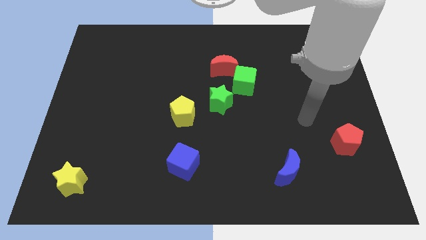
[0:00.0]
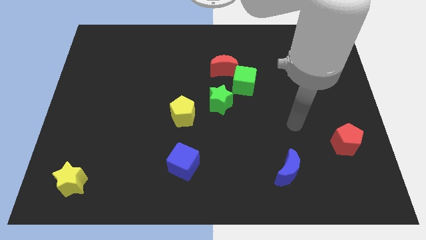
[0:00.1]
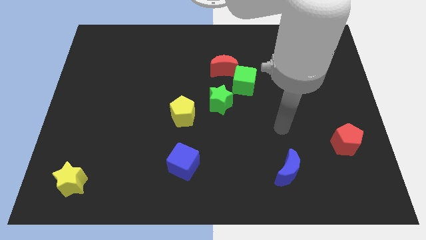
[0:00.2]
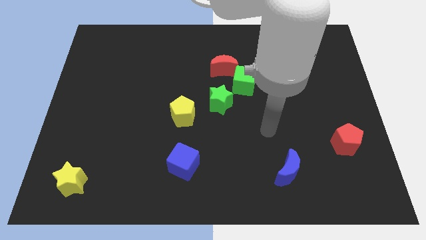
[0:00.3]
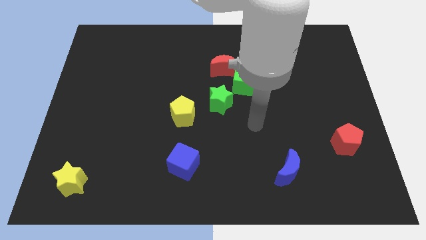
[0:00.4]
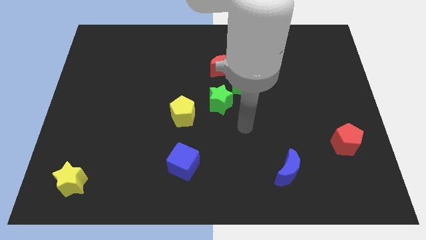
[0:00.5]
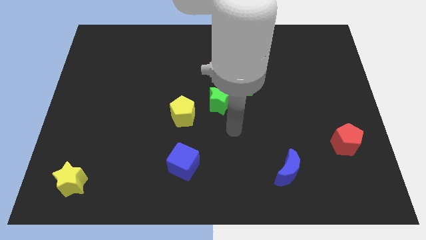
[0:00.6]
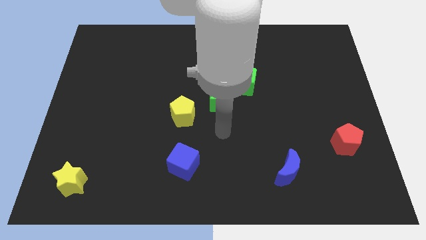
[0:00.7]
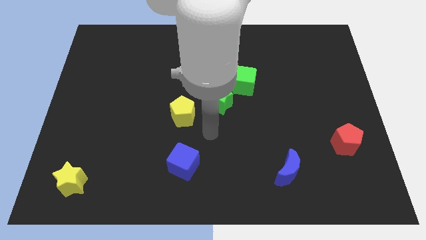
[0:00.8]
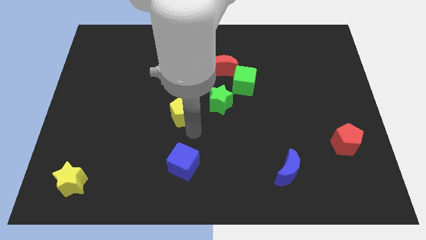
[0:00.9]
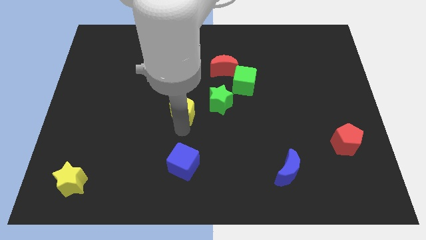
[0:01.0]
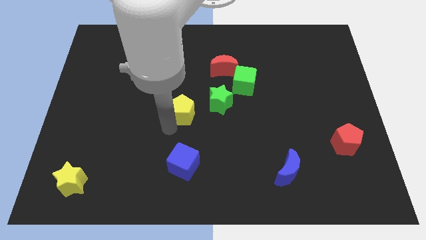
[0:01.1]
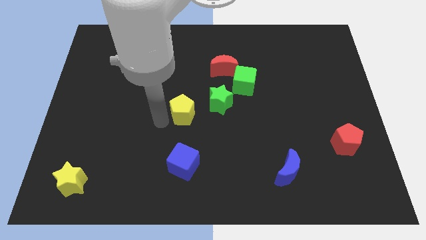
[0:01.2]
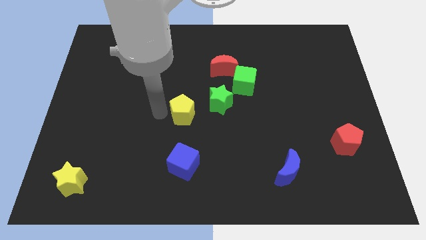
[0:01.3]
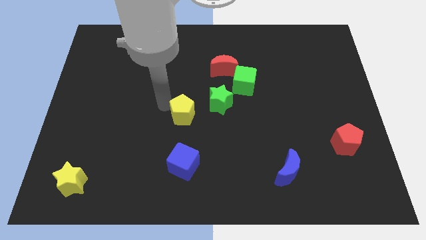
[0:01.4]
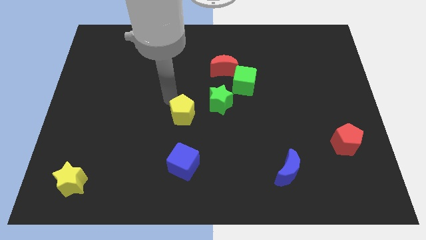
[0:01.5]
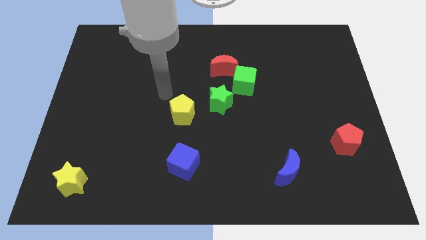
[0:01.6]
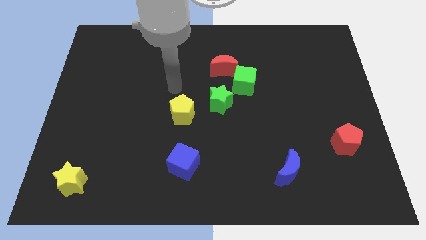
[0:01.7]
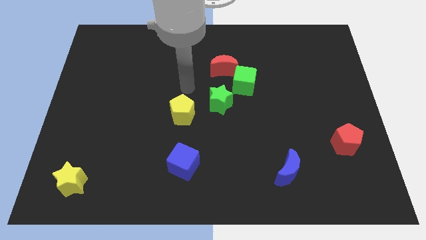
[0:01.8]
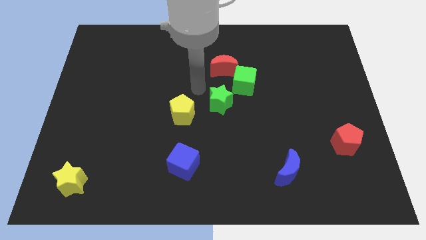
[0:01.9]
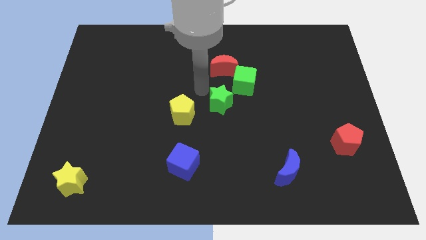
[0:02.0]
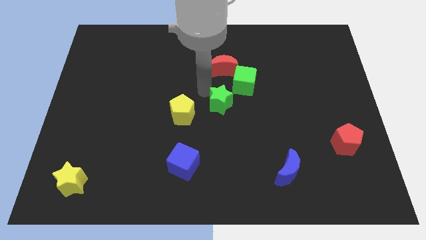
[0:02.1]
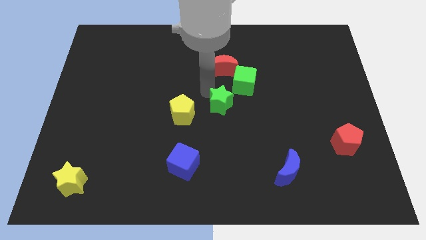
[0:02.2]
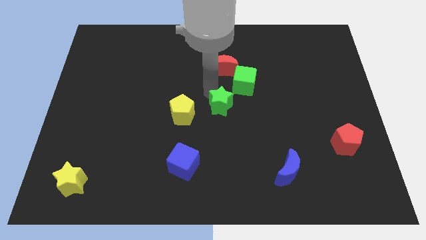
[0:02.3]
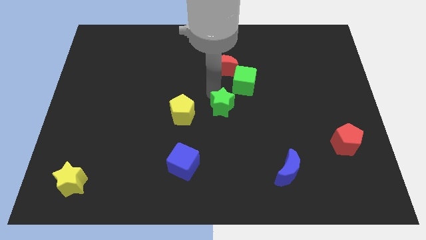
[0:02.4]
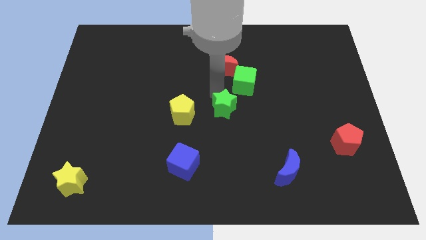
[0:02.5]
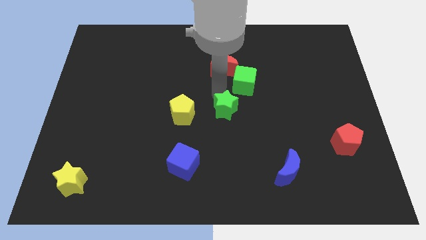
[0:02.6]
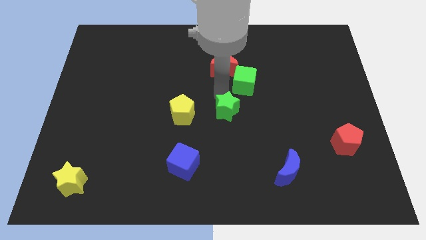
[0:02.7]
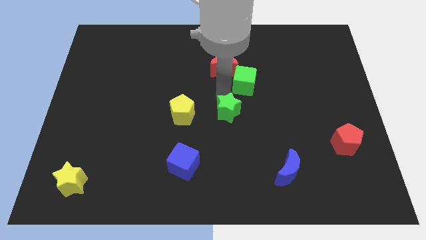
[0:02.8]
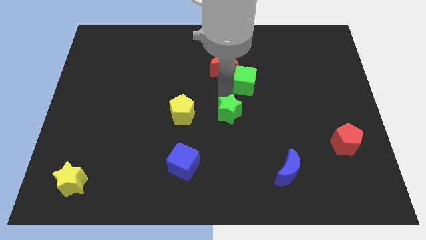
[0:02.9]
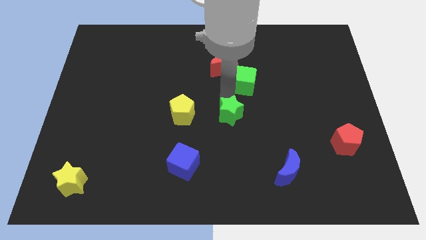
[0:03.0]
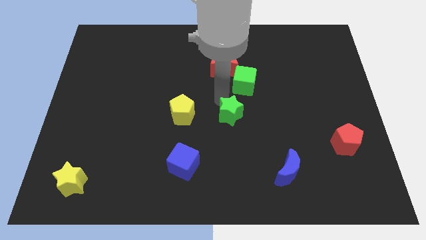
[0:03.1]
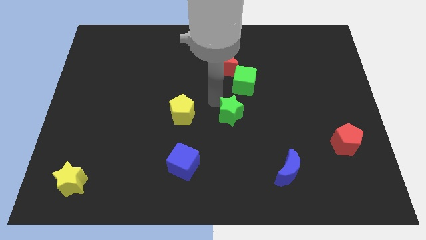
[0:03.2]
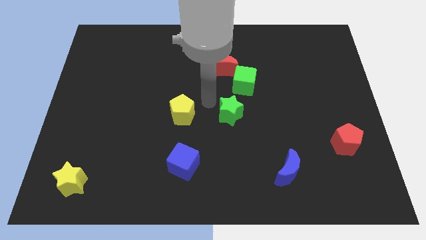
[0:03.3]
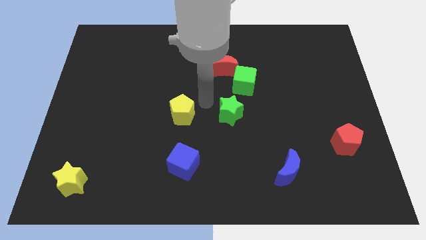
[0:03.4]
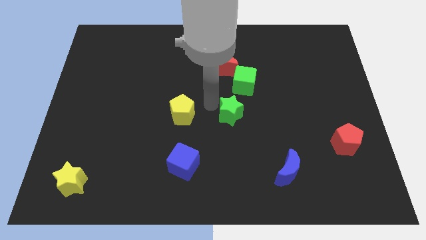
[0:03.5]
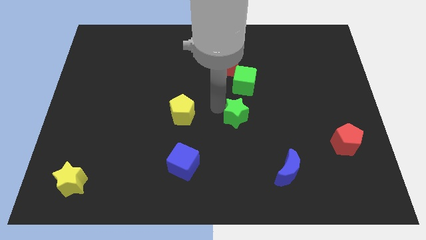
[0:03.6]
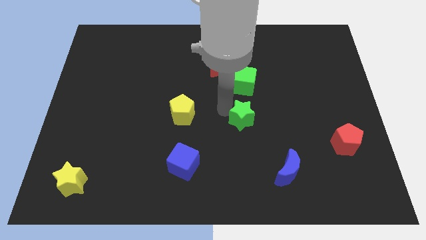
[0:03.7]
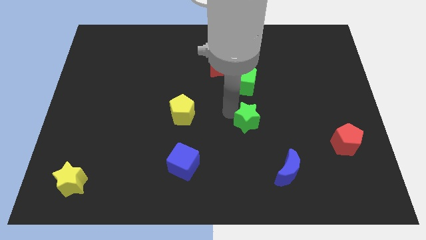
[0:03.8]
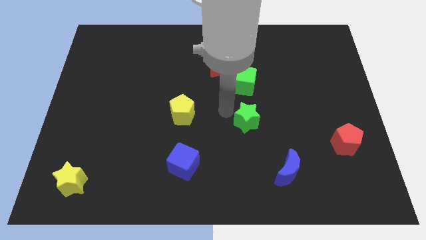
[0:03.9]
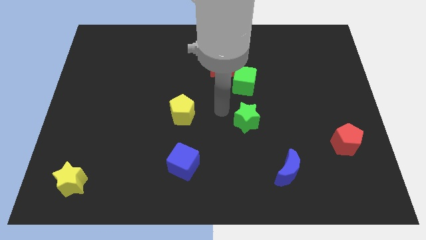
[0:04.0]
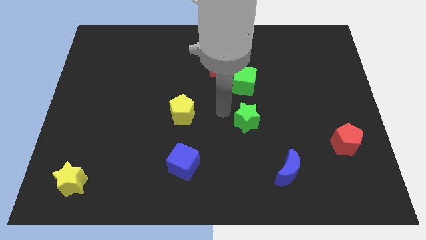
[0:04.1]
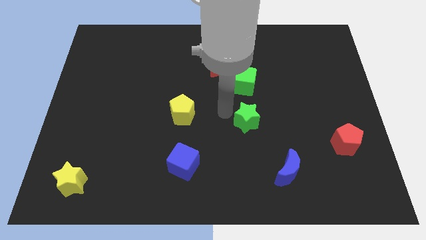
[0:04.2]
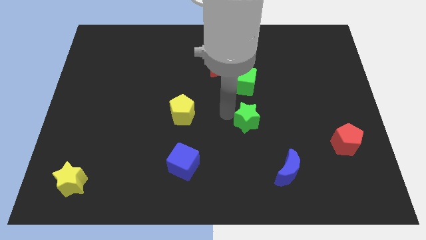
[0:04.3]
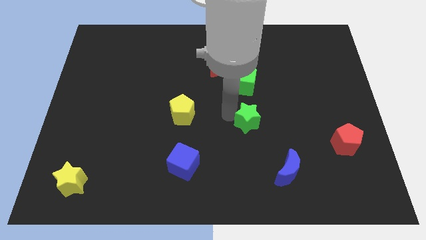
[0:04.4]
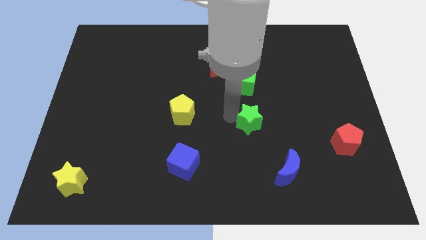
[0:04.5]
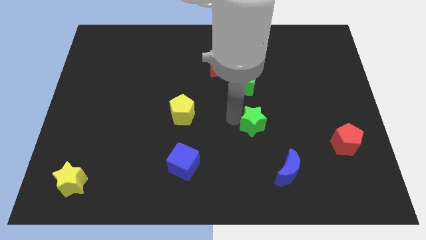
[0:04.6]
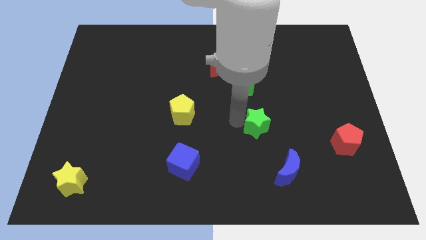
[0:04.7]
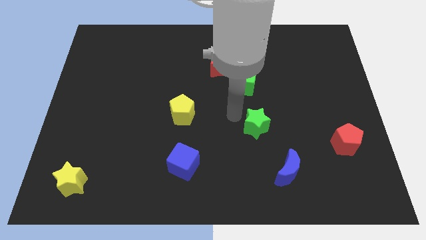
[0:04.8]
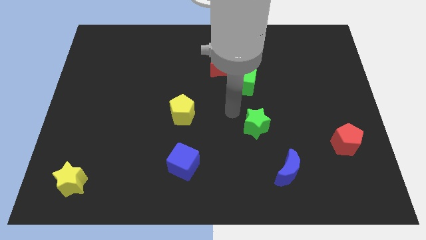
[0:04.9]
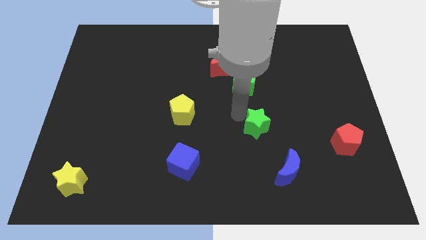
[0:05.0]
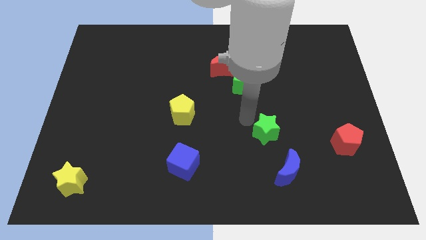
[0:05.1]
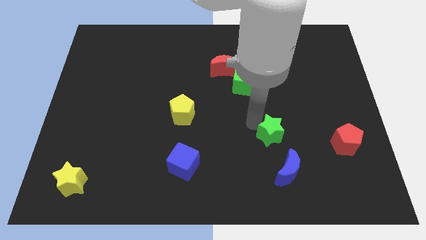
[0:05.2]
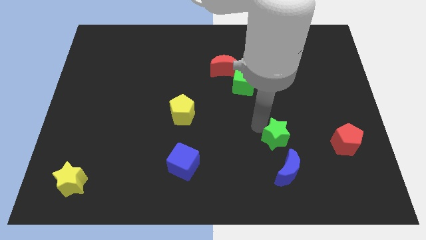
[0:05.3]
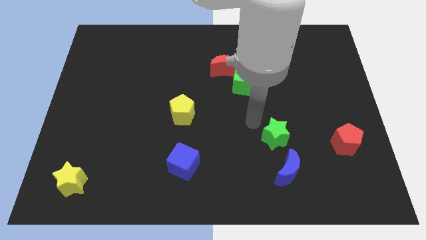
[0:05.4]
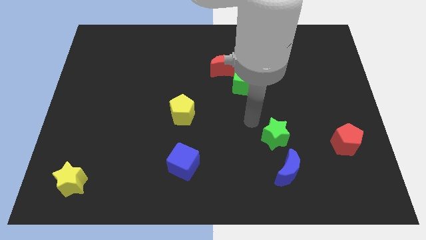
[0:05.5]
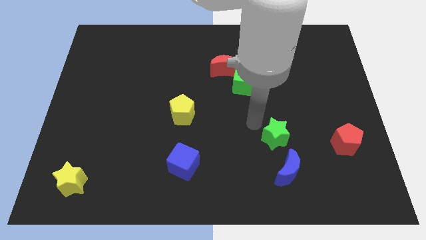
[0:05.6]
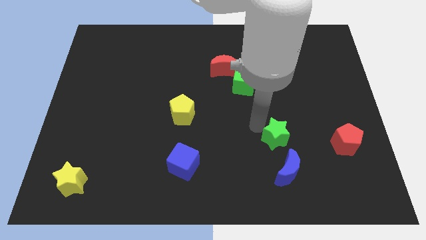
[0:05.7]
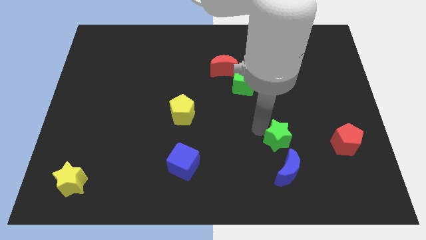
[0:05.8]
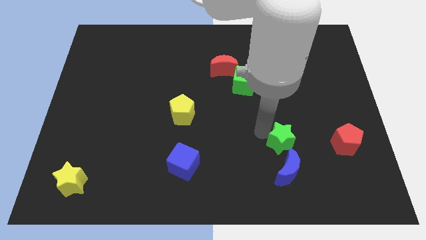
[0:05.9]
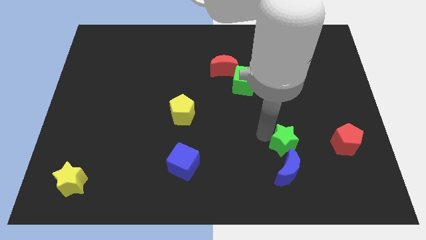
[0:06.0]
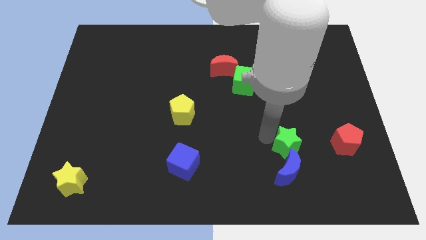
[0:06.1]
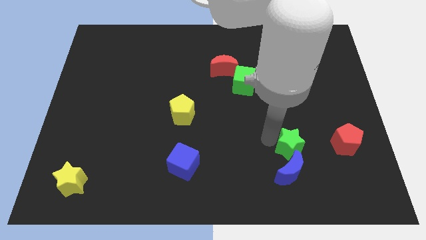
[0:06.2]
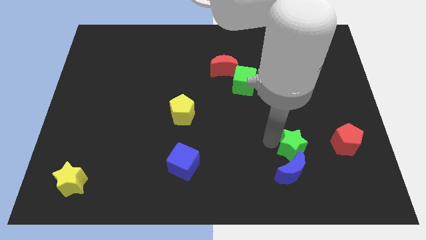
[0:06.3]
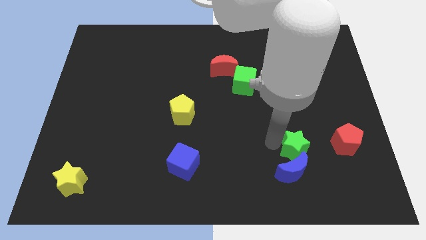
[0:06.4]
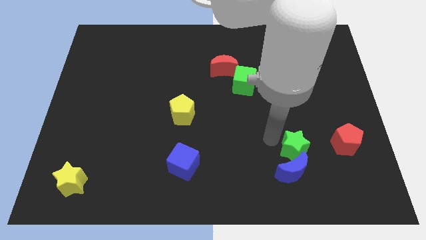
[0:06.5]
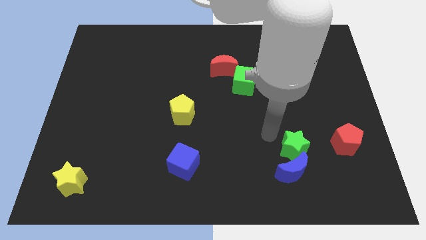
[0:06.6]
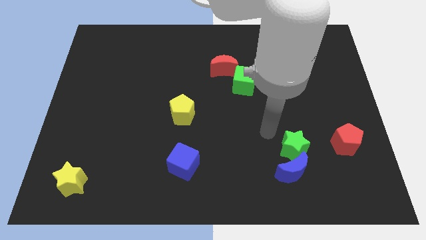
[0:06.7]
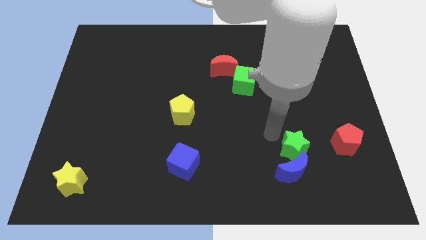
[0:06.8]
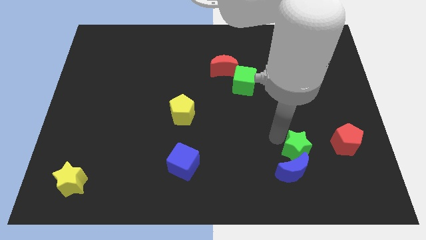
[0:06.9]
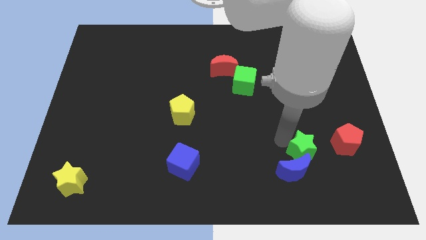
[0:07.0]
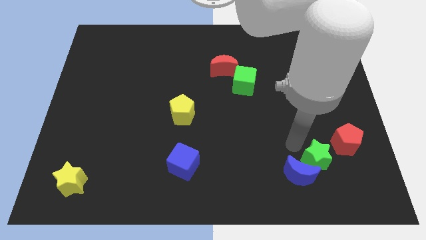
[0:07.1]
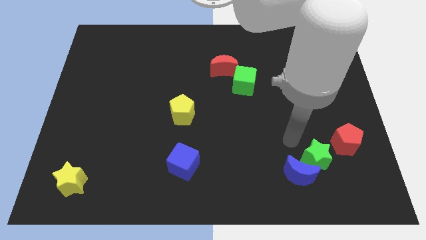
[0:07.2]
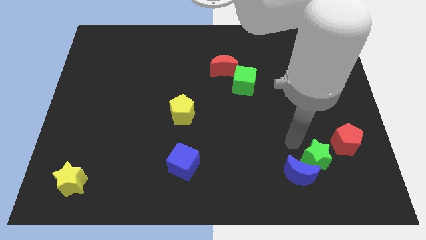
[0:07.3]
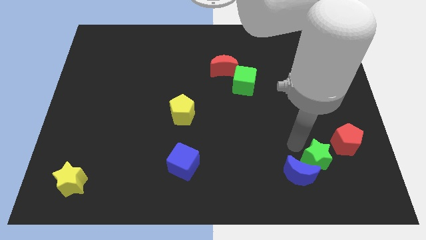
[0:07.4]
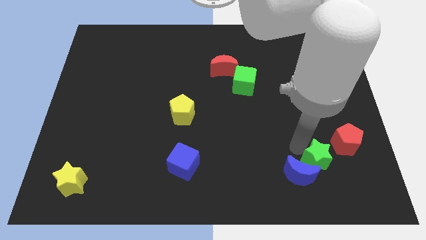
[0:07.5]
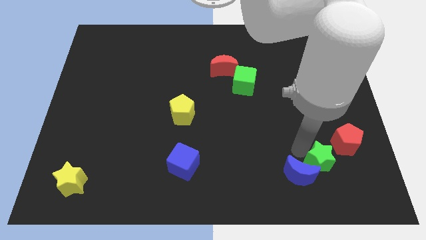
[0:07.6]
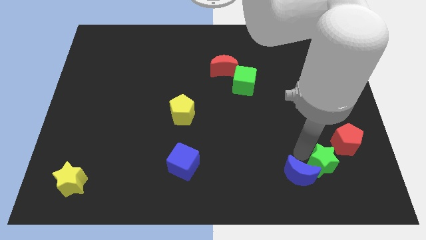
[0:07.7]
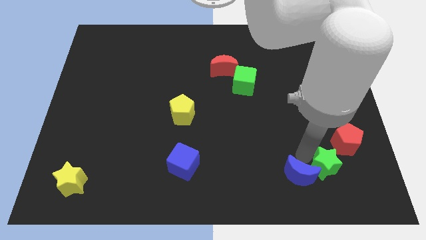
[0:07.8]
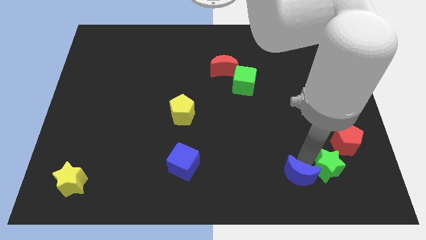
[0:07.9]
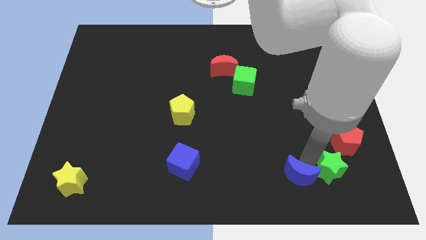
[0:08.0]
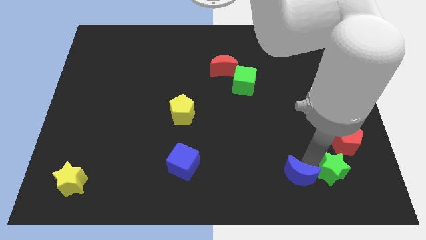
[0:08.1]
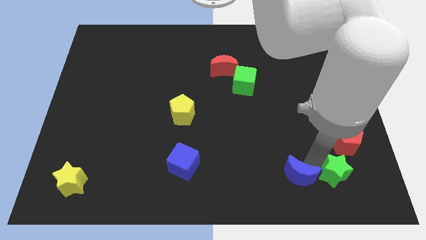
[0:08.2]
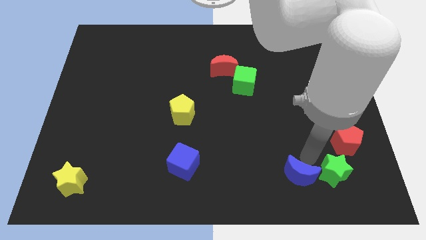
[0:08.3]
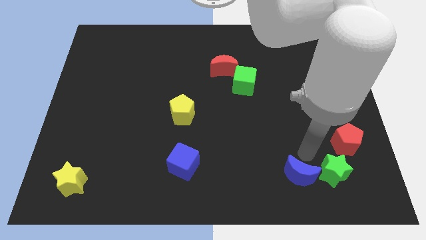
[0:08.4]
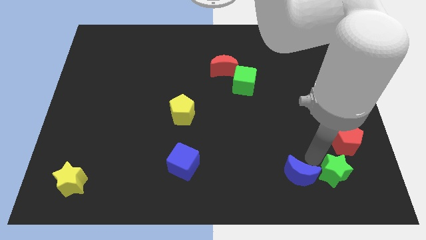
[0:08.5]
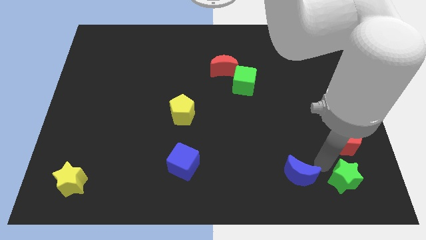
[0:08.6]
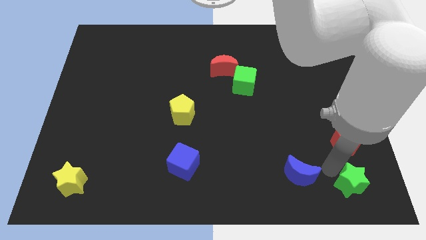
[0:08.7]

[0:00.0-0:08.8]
move the green star to the bottom right corner
